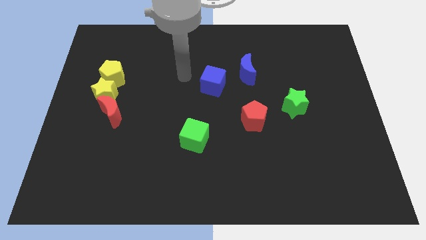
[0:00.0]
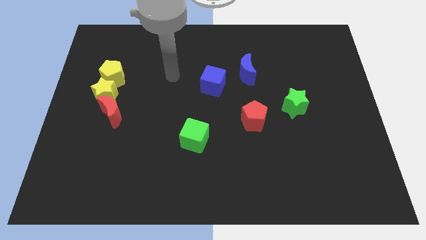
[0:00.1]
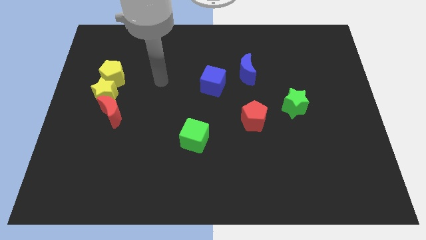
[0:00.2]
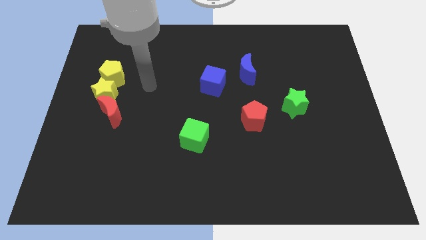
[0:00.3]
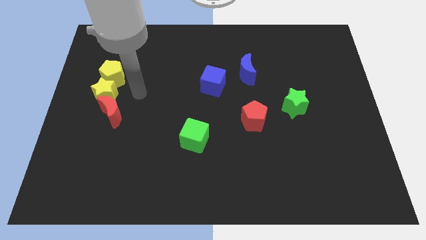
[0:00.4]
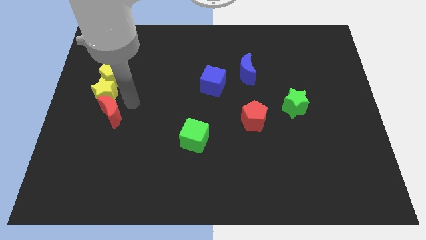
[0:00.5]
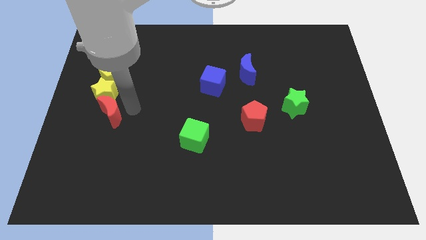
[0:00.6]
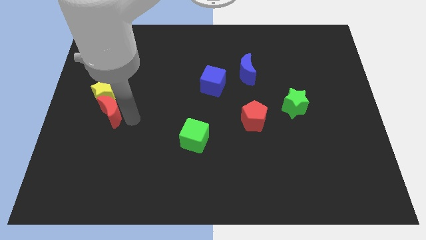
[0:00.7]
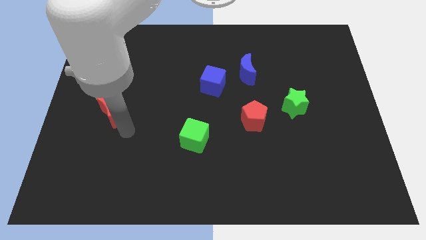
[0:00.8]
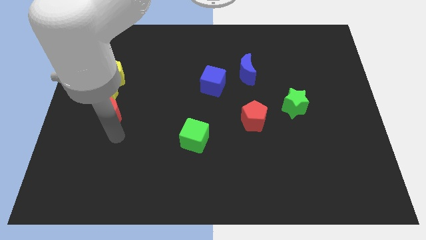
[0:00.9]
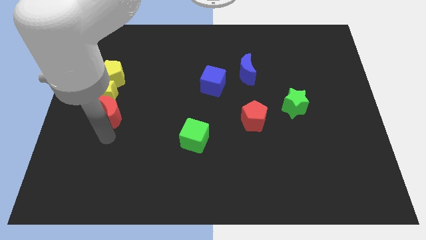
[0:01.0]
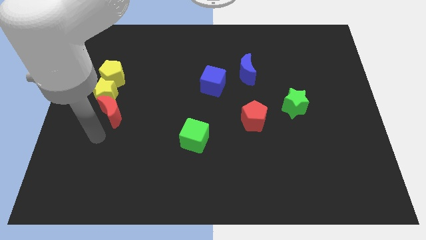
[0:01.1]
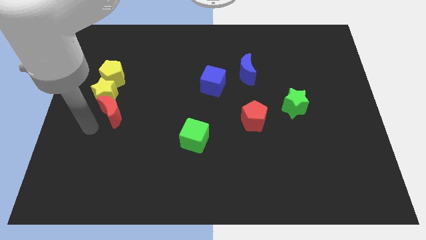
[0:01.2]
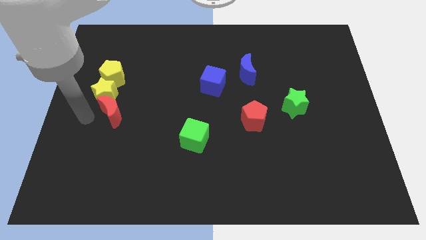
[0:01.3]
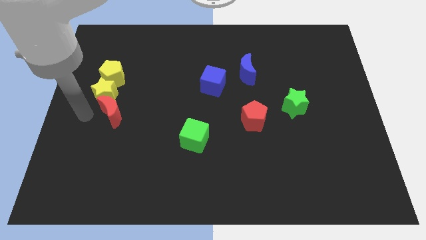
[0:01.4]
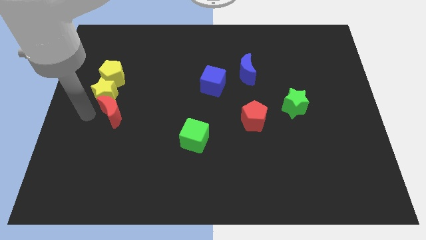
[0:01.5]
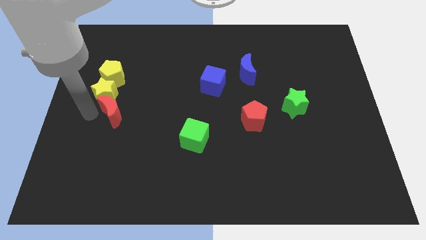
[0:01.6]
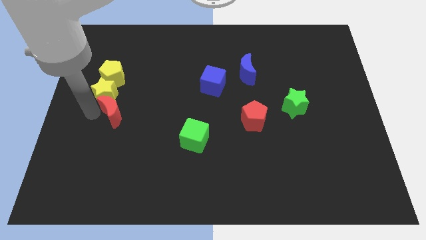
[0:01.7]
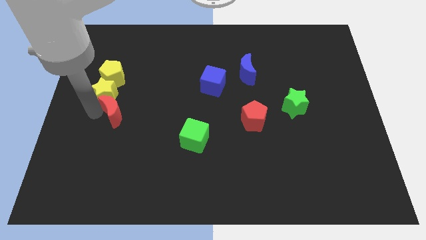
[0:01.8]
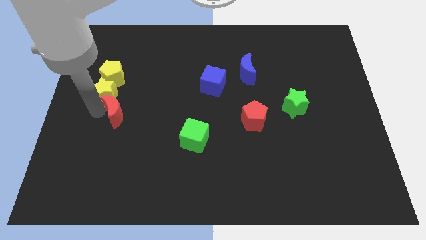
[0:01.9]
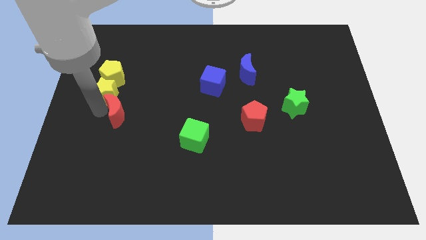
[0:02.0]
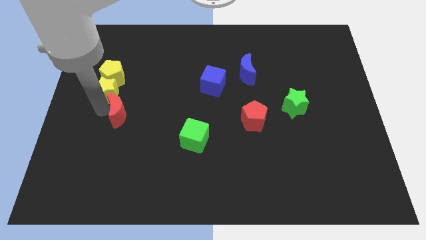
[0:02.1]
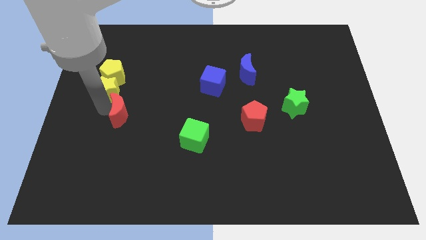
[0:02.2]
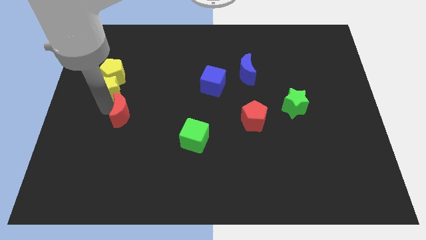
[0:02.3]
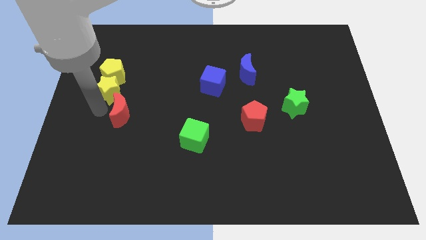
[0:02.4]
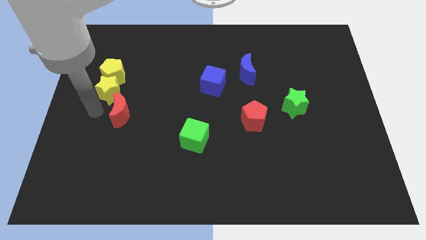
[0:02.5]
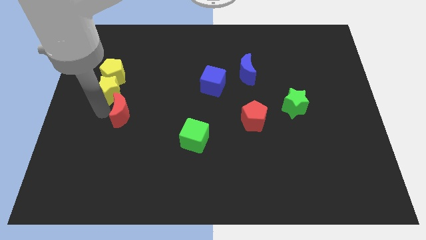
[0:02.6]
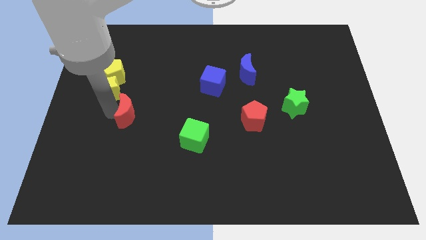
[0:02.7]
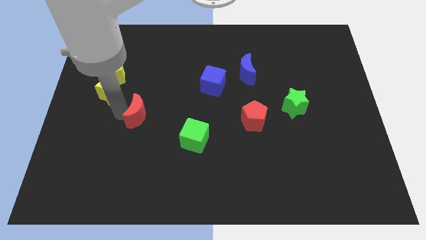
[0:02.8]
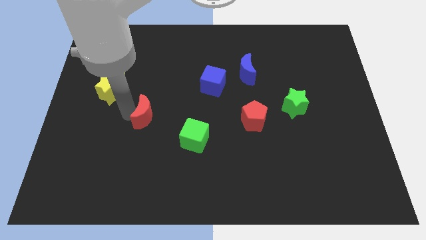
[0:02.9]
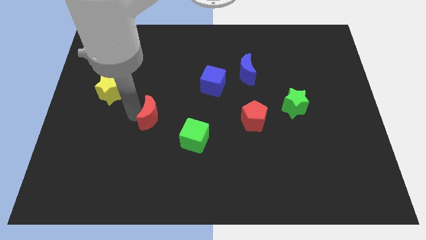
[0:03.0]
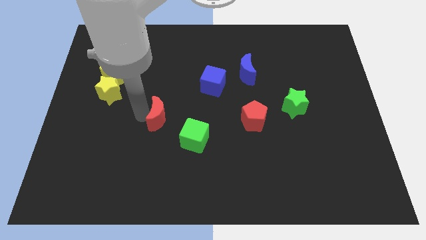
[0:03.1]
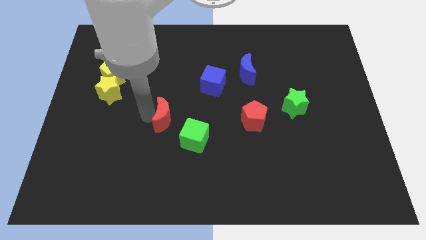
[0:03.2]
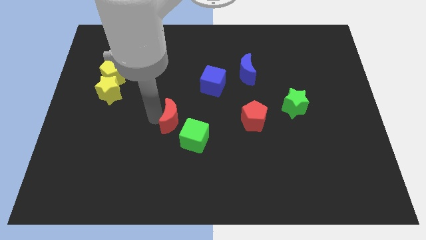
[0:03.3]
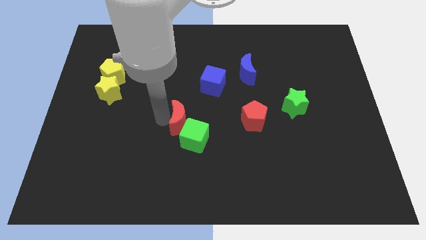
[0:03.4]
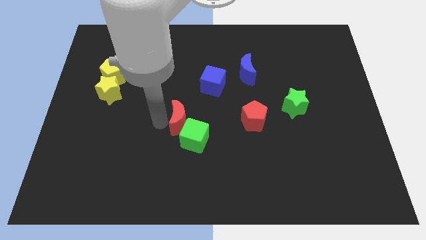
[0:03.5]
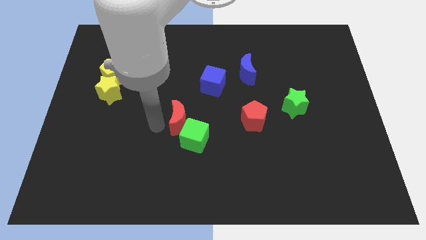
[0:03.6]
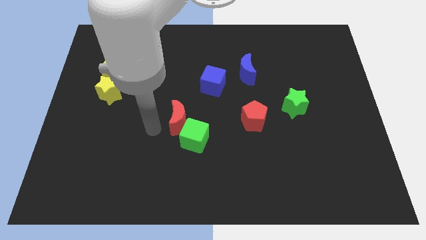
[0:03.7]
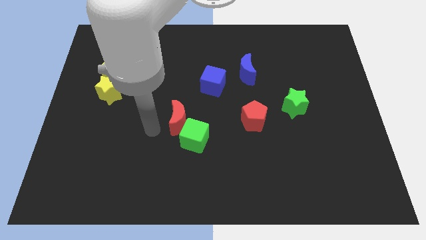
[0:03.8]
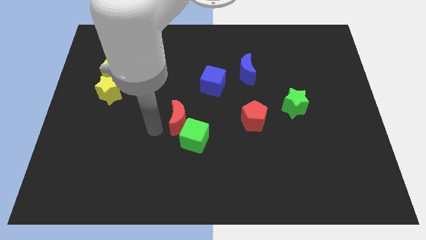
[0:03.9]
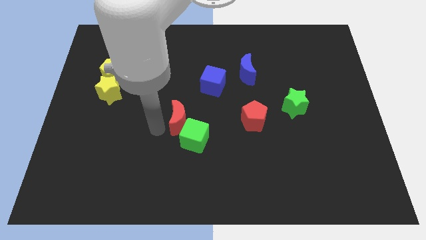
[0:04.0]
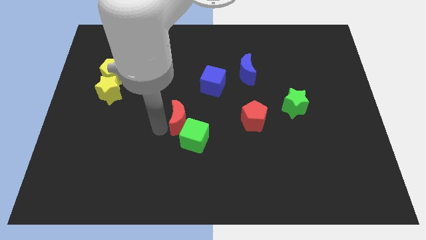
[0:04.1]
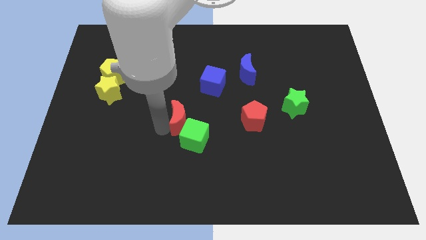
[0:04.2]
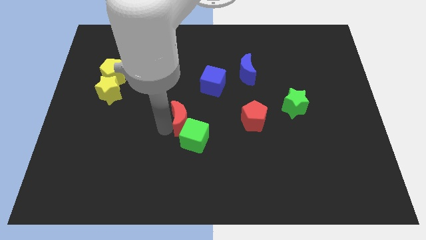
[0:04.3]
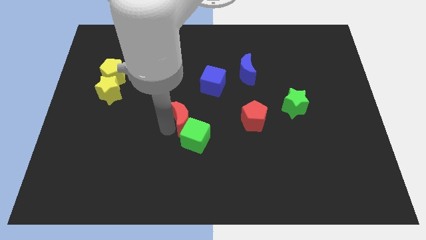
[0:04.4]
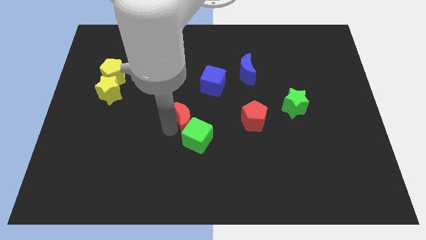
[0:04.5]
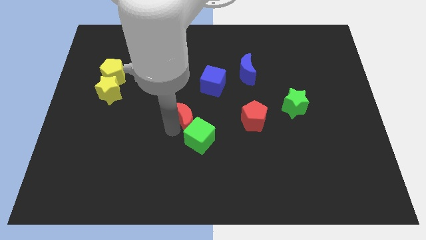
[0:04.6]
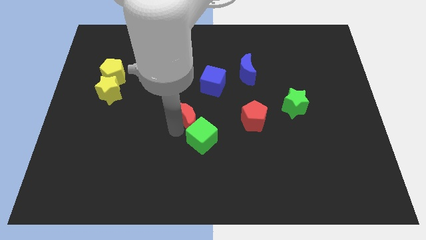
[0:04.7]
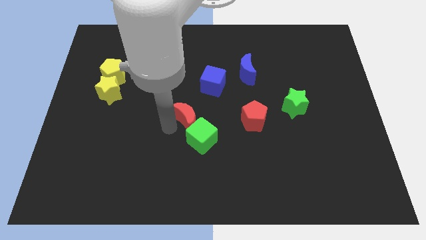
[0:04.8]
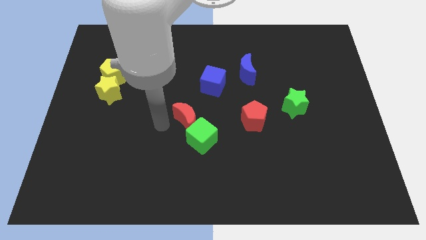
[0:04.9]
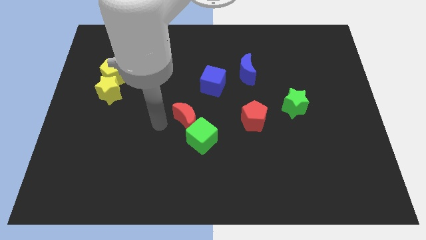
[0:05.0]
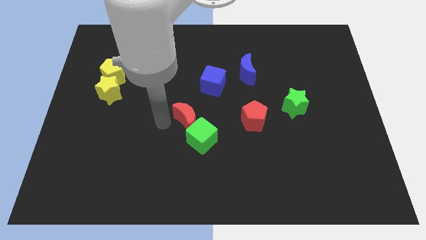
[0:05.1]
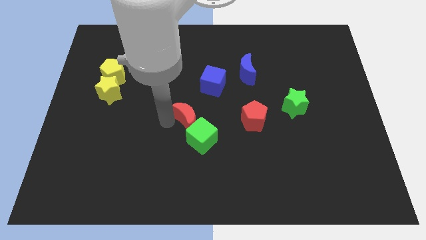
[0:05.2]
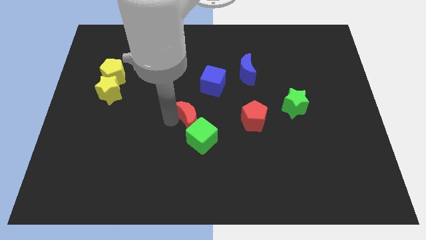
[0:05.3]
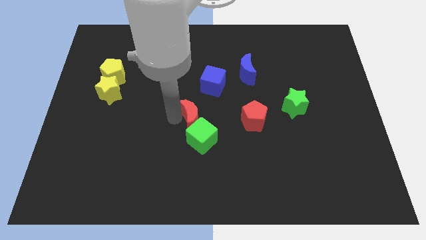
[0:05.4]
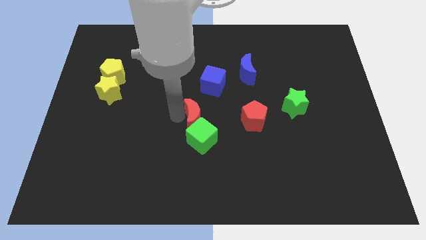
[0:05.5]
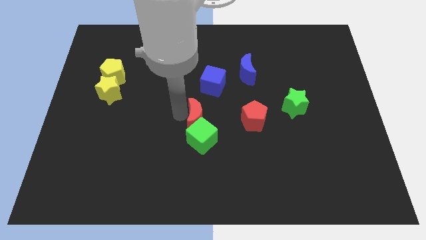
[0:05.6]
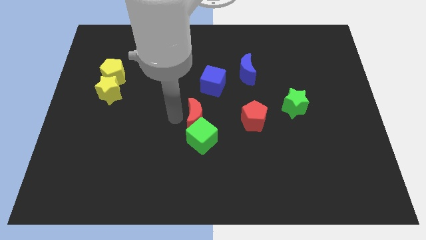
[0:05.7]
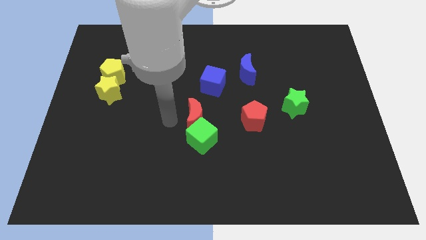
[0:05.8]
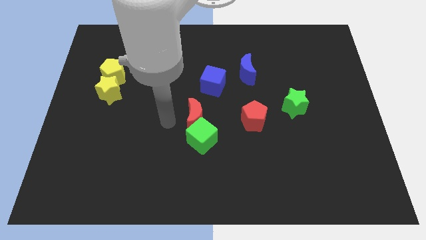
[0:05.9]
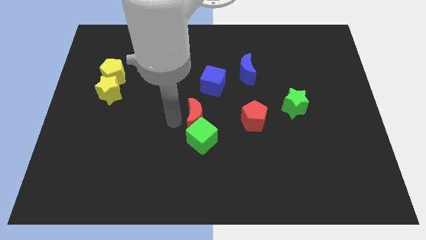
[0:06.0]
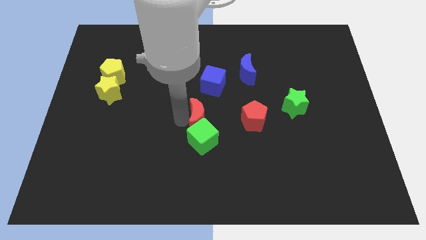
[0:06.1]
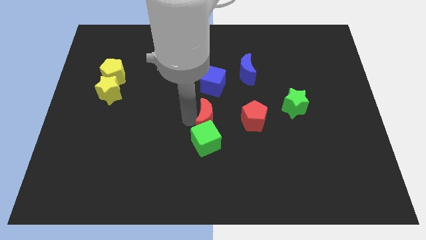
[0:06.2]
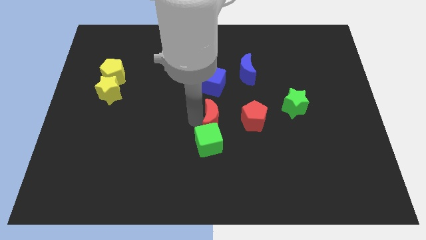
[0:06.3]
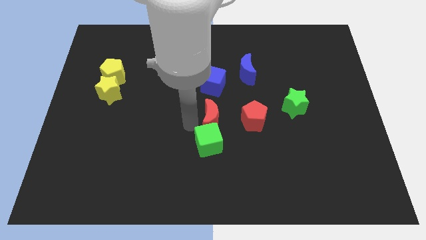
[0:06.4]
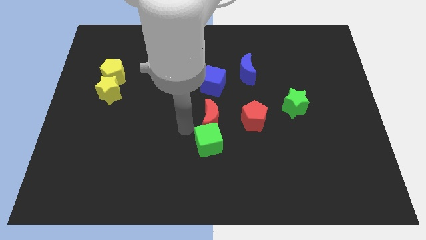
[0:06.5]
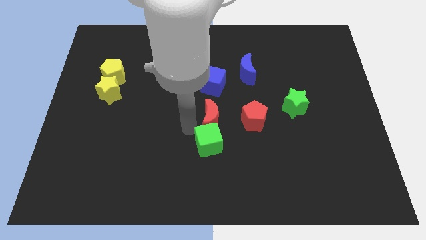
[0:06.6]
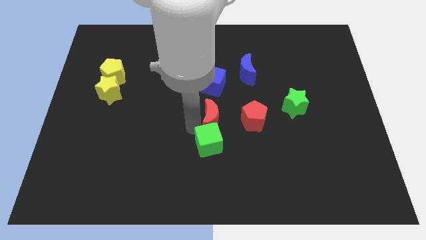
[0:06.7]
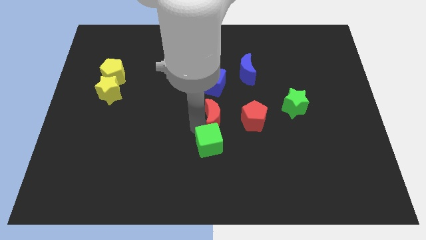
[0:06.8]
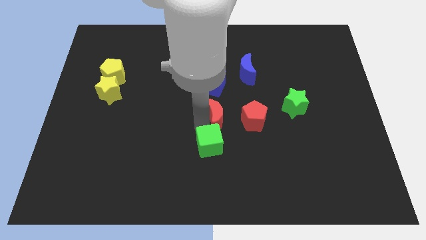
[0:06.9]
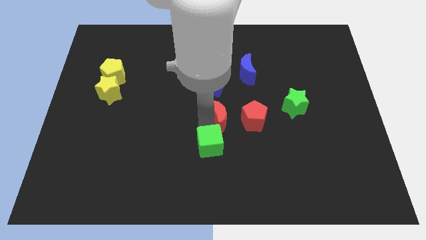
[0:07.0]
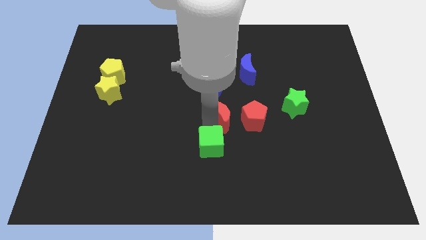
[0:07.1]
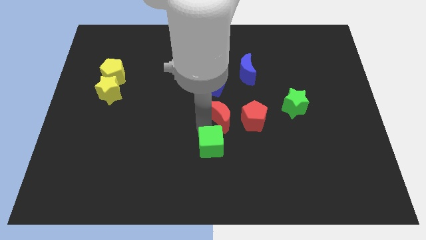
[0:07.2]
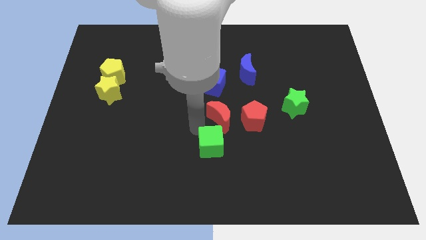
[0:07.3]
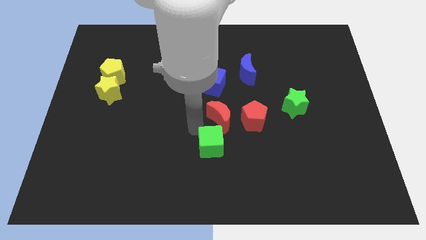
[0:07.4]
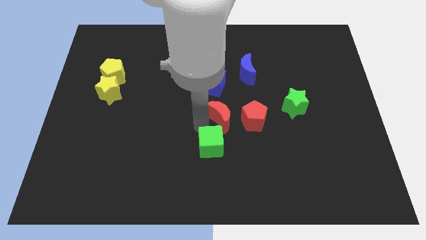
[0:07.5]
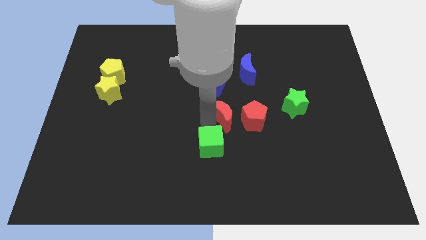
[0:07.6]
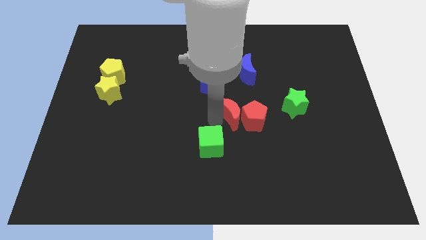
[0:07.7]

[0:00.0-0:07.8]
slide the red moon to the left side of the green star
